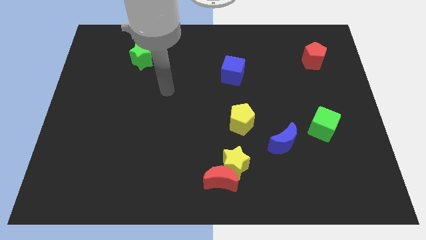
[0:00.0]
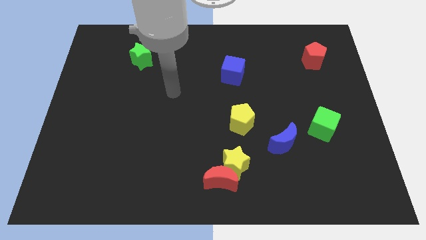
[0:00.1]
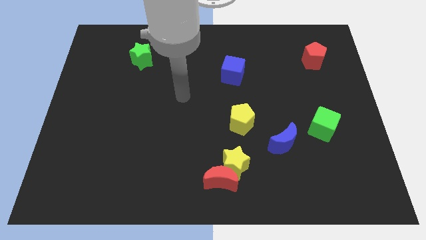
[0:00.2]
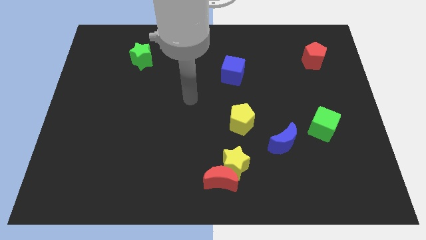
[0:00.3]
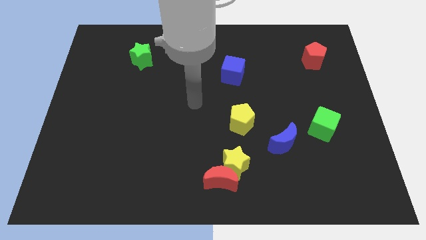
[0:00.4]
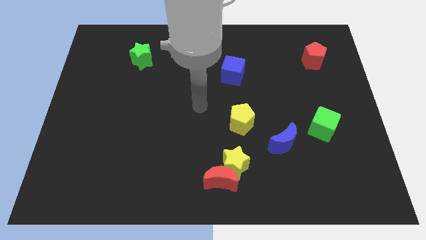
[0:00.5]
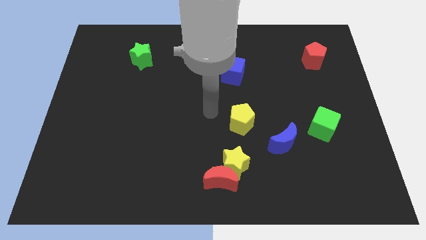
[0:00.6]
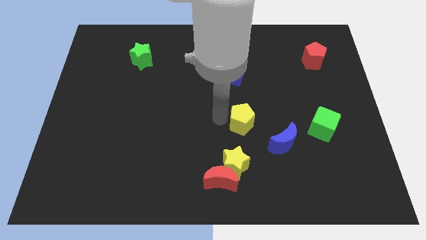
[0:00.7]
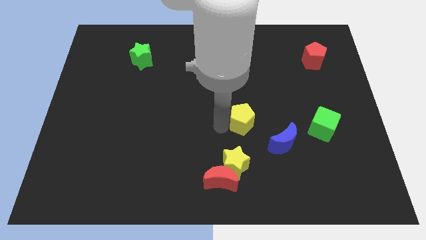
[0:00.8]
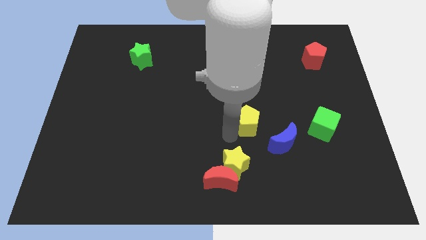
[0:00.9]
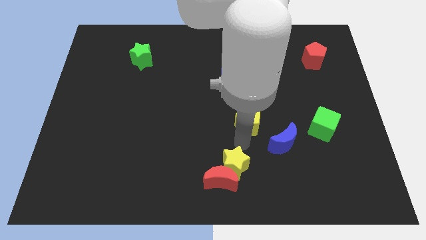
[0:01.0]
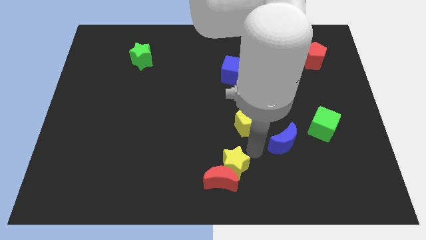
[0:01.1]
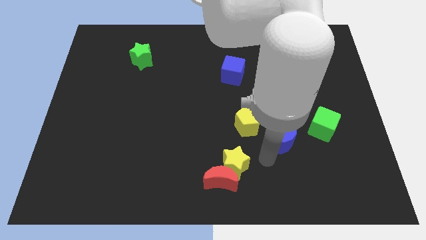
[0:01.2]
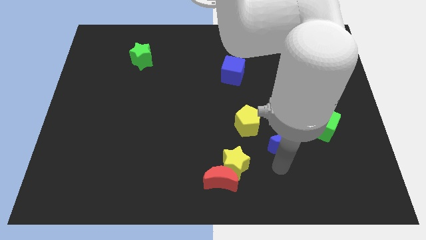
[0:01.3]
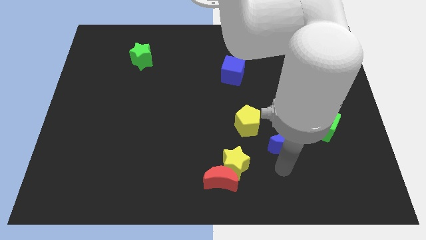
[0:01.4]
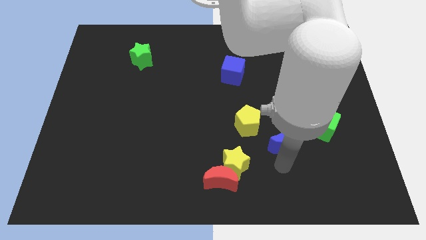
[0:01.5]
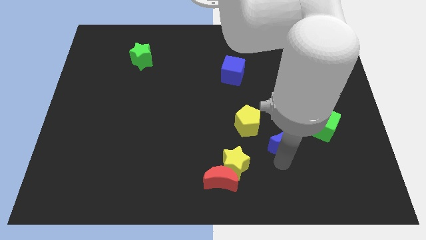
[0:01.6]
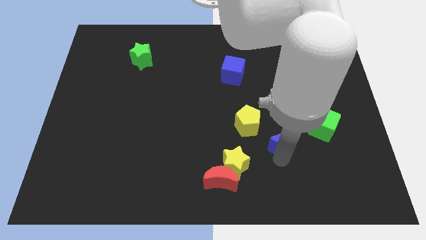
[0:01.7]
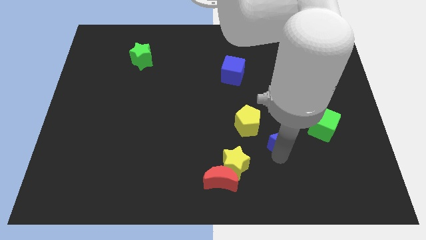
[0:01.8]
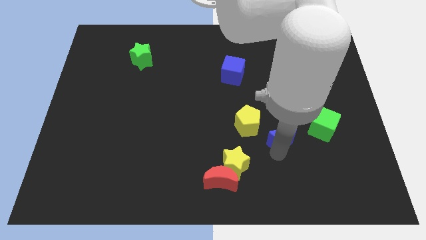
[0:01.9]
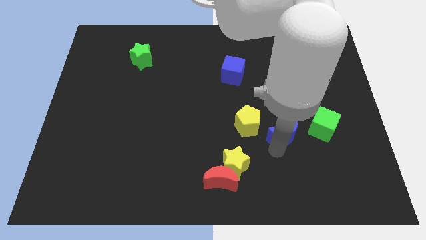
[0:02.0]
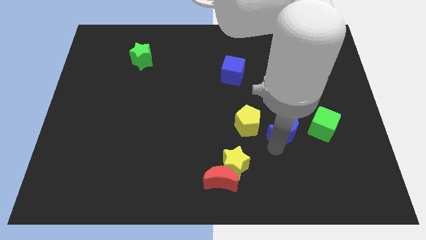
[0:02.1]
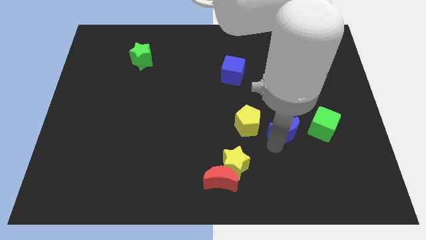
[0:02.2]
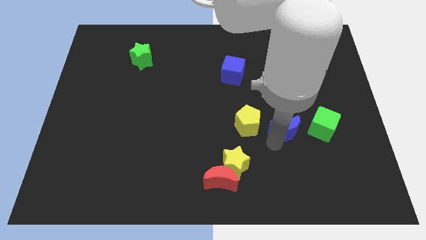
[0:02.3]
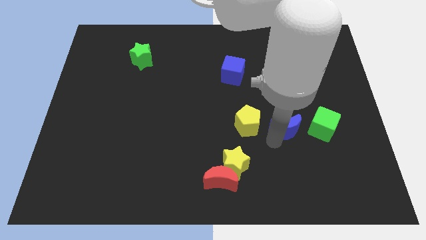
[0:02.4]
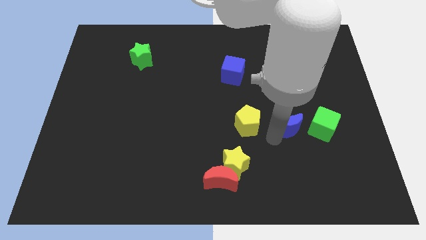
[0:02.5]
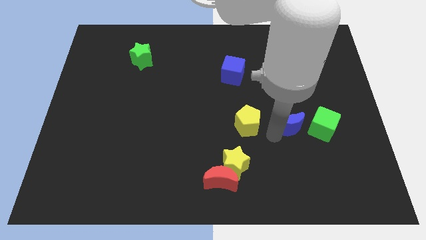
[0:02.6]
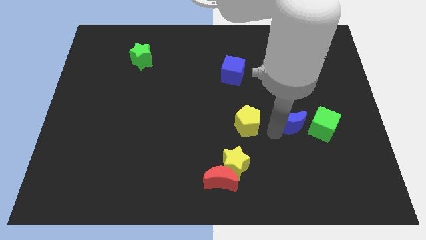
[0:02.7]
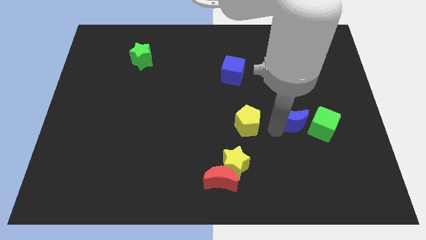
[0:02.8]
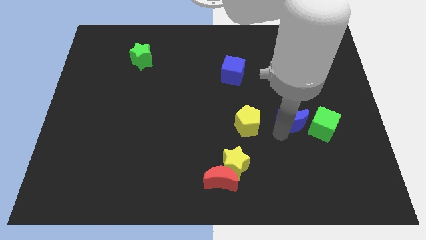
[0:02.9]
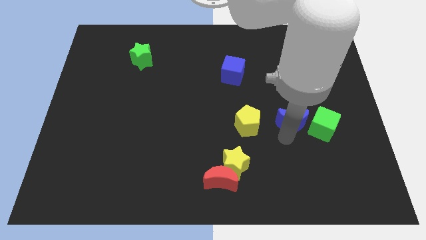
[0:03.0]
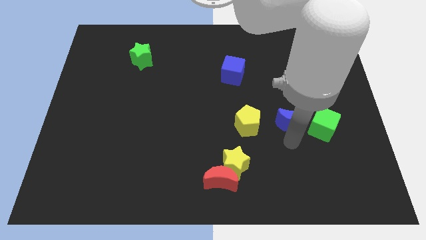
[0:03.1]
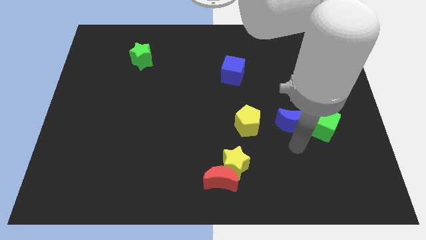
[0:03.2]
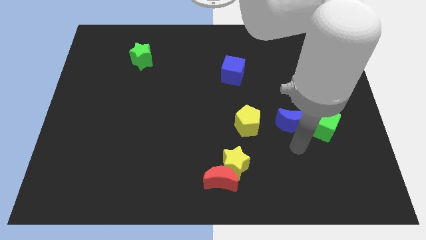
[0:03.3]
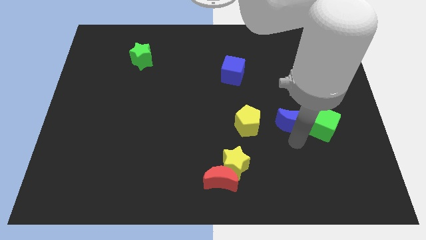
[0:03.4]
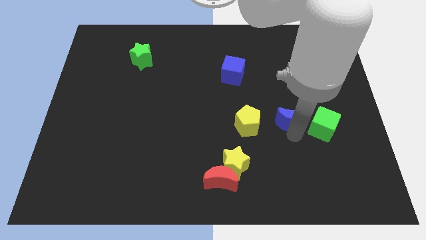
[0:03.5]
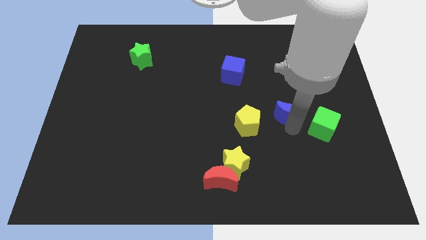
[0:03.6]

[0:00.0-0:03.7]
slide the blue moon somewhat upwards

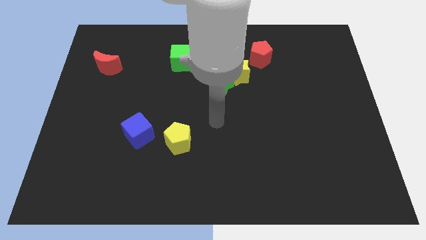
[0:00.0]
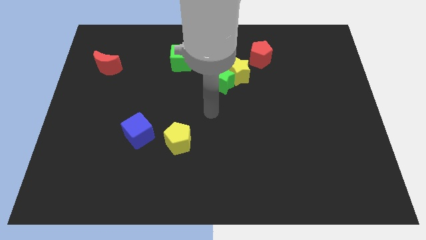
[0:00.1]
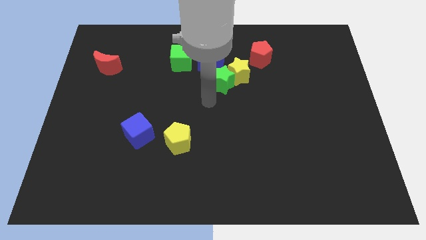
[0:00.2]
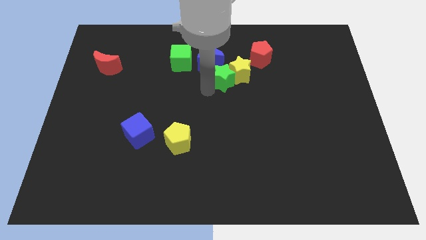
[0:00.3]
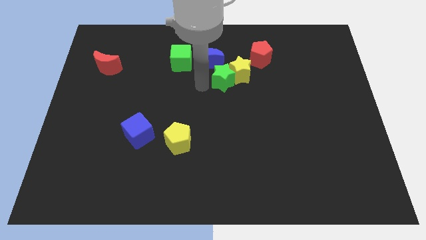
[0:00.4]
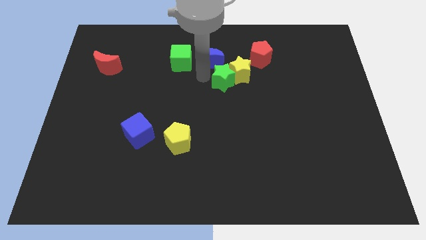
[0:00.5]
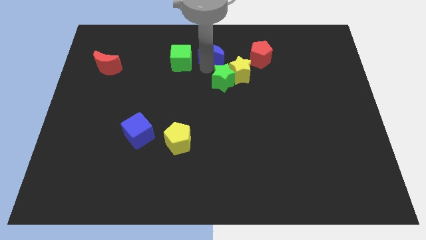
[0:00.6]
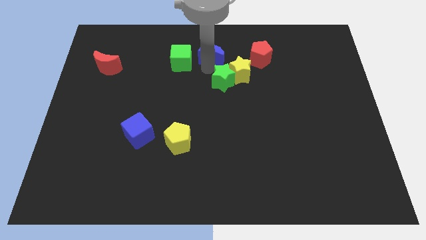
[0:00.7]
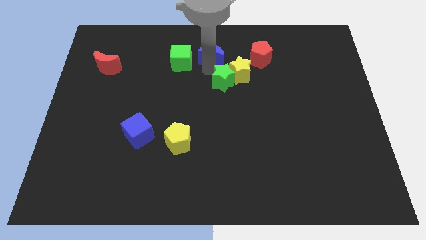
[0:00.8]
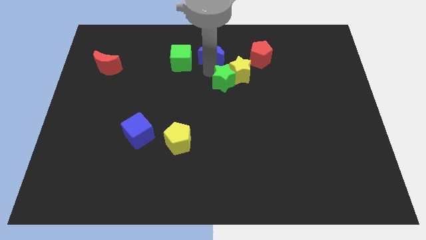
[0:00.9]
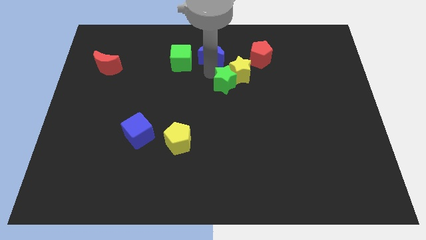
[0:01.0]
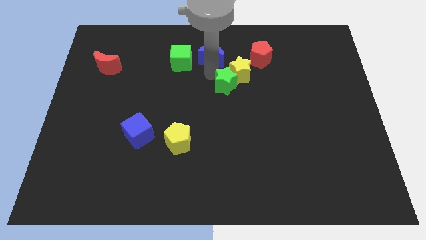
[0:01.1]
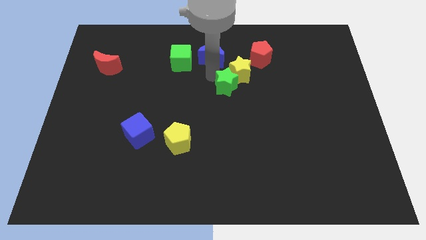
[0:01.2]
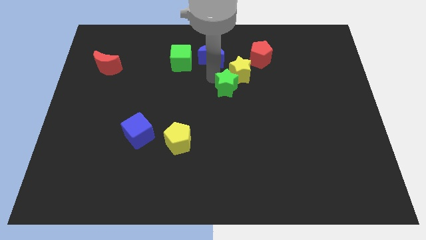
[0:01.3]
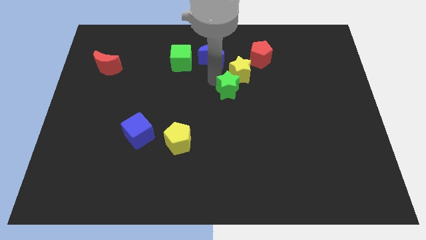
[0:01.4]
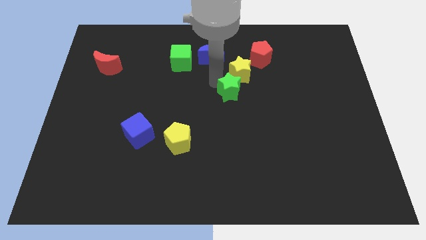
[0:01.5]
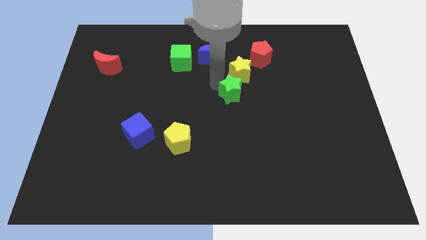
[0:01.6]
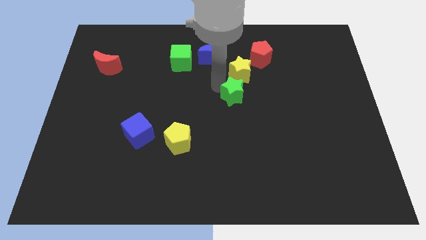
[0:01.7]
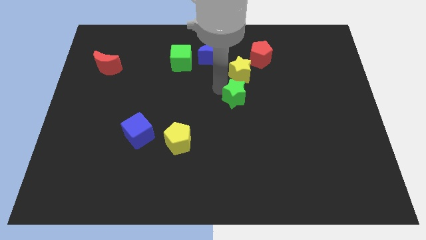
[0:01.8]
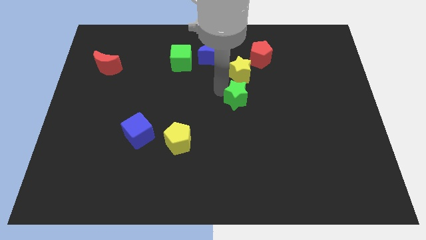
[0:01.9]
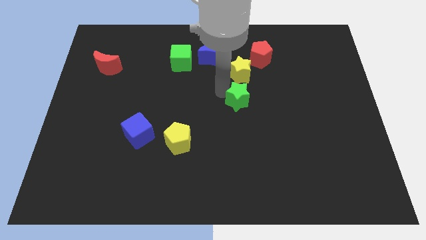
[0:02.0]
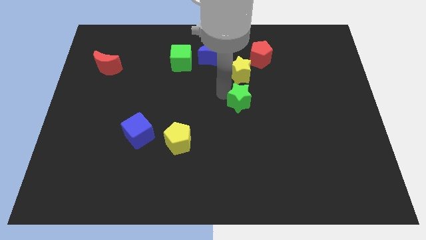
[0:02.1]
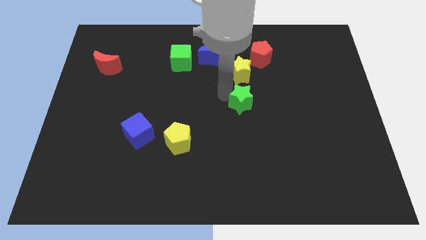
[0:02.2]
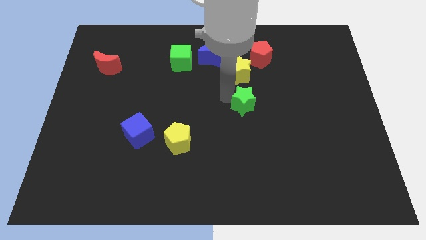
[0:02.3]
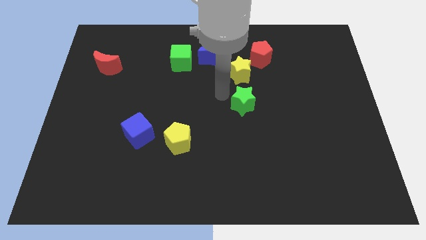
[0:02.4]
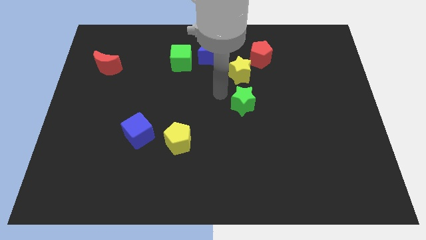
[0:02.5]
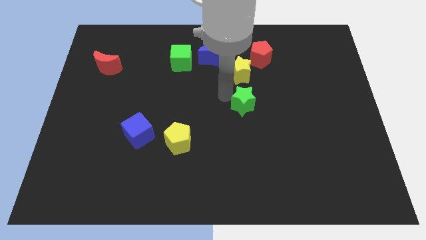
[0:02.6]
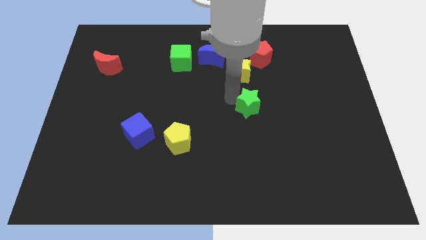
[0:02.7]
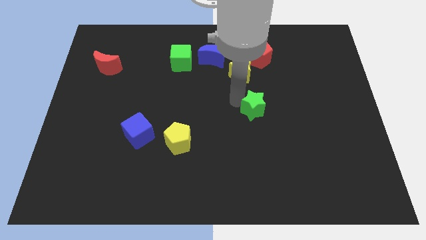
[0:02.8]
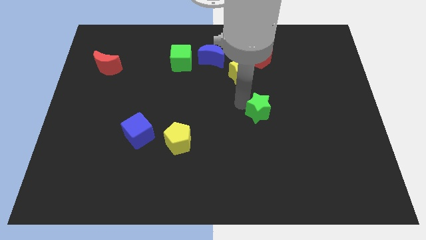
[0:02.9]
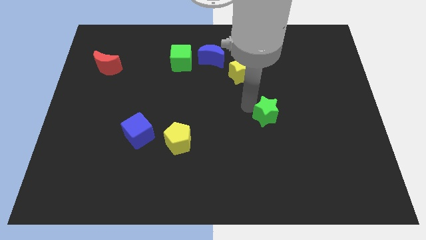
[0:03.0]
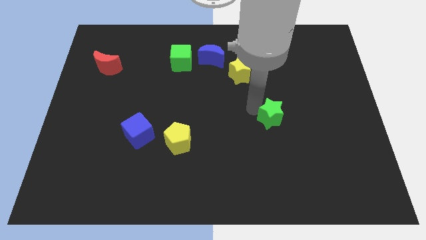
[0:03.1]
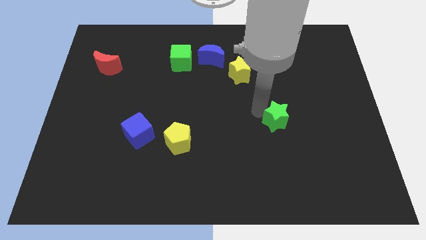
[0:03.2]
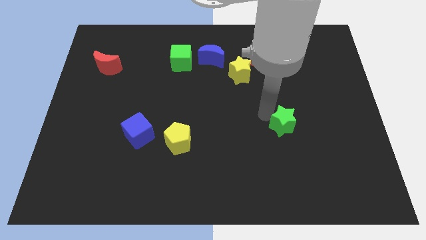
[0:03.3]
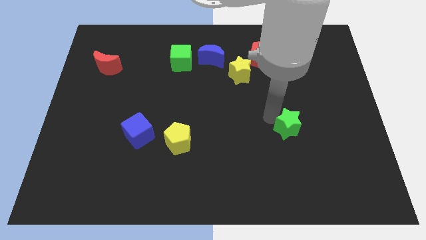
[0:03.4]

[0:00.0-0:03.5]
move the green star down and right diagonally

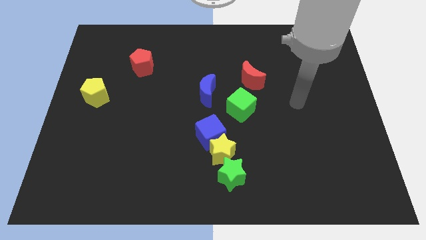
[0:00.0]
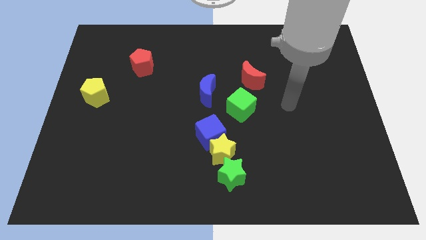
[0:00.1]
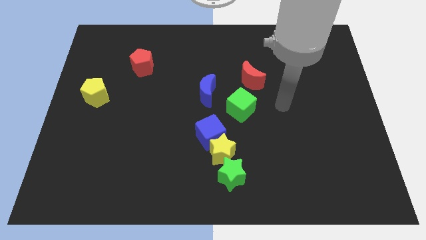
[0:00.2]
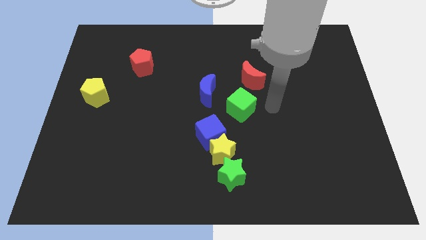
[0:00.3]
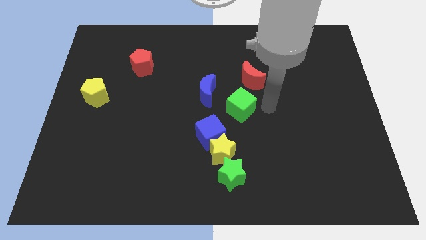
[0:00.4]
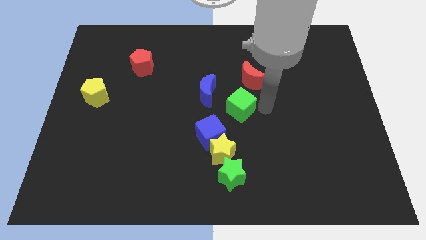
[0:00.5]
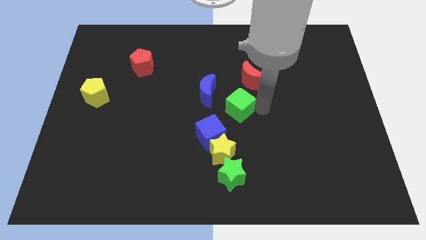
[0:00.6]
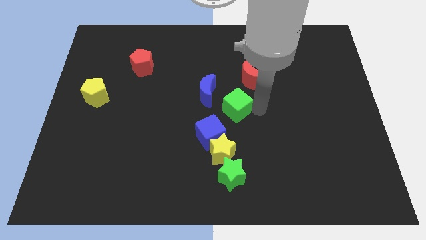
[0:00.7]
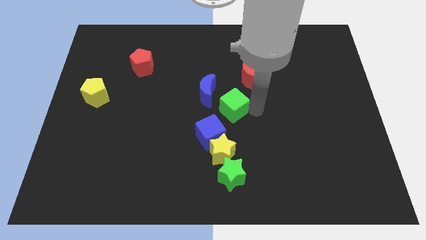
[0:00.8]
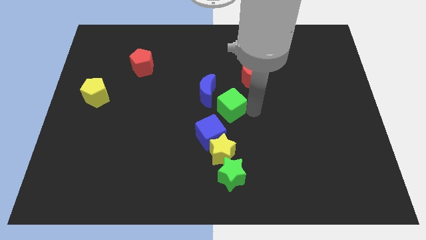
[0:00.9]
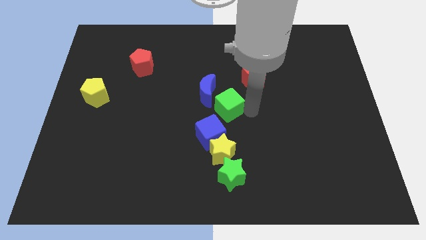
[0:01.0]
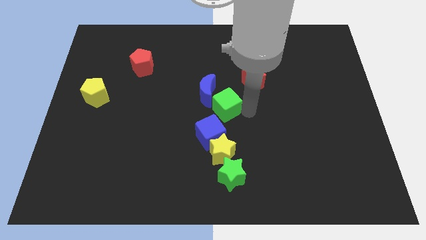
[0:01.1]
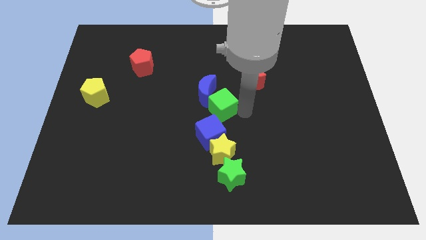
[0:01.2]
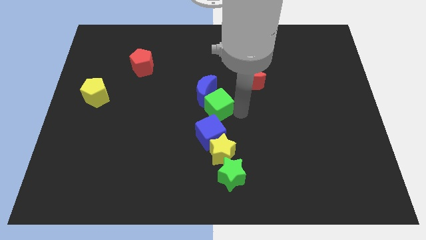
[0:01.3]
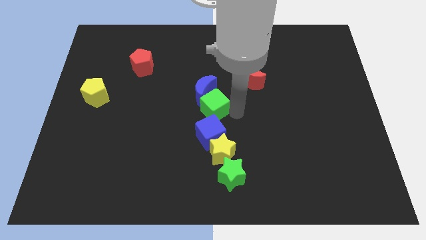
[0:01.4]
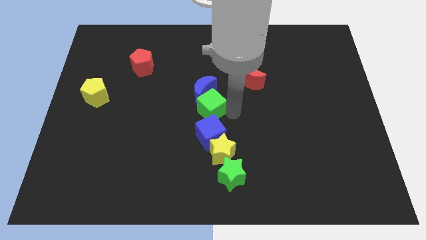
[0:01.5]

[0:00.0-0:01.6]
move the green cube somewhat to the left
